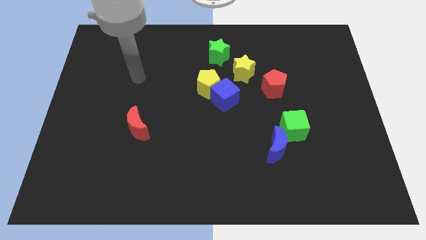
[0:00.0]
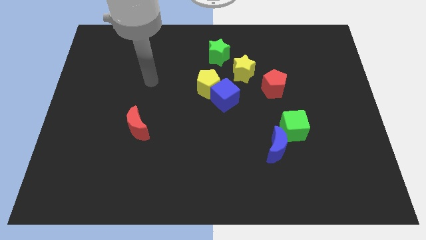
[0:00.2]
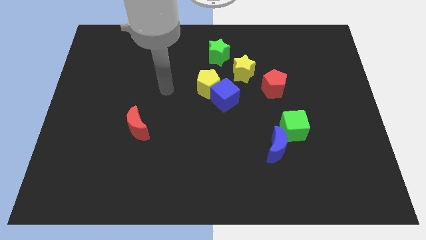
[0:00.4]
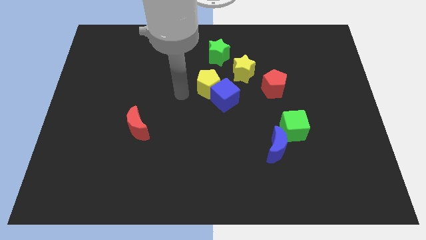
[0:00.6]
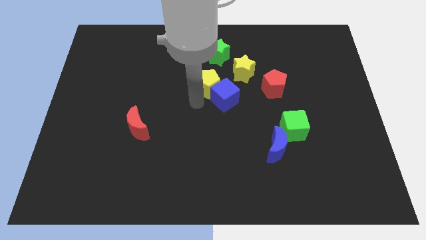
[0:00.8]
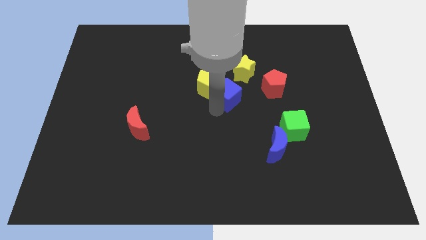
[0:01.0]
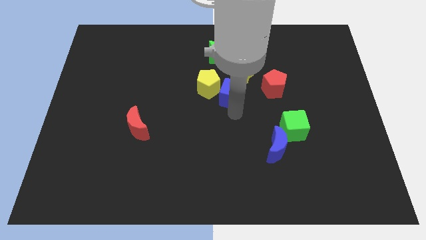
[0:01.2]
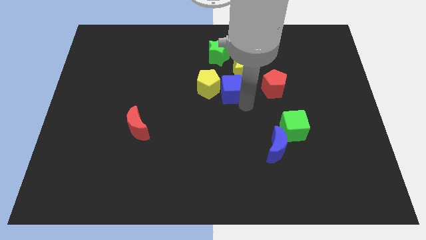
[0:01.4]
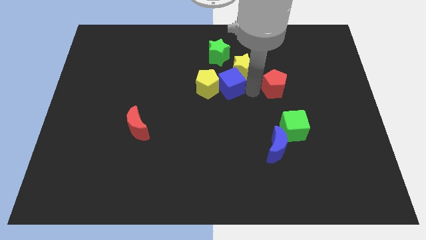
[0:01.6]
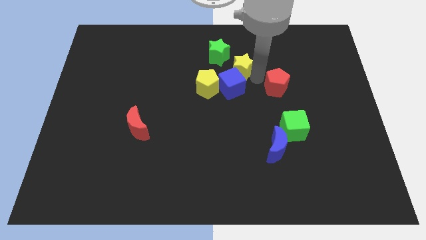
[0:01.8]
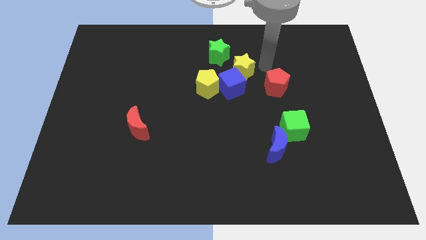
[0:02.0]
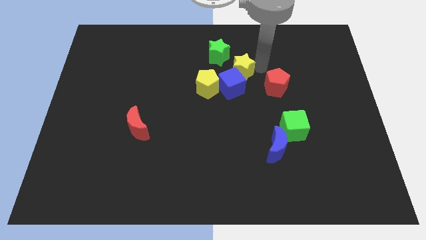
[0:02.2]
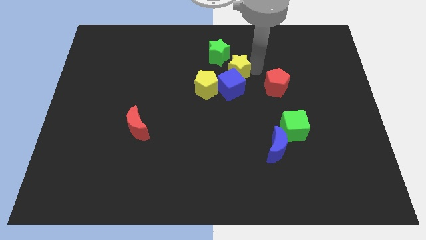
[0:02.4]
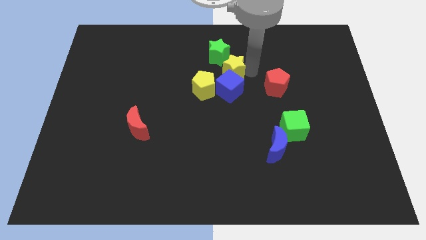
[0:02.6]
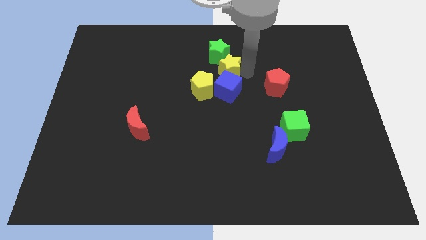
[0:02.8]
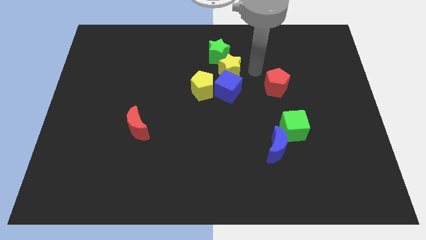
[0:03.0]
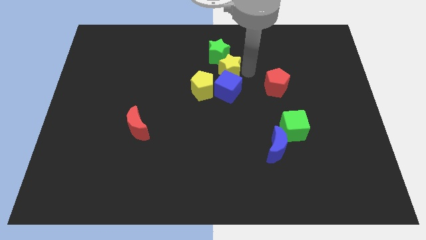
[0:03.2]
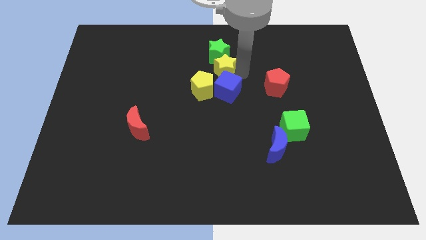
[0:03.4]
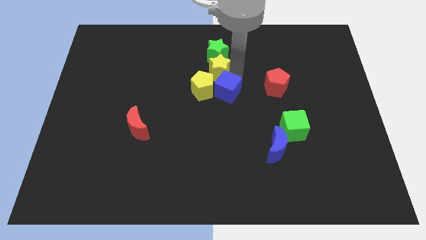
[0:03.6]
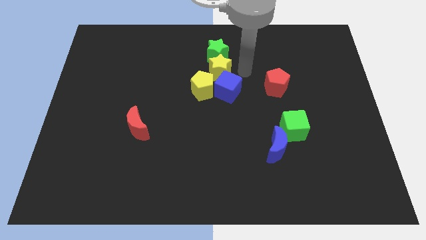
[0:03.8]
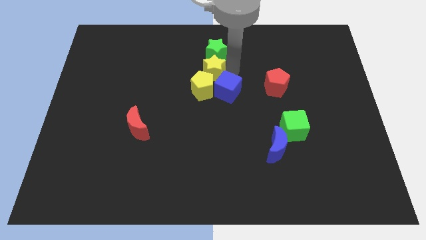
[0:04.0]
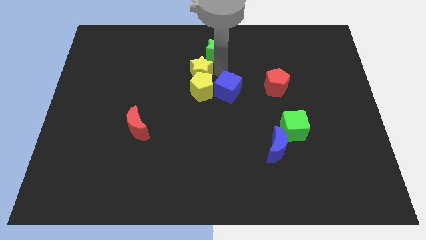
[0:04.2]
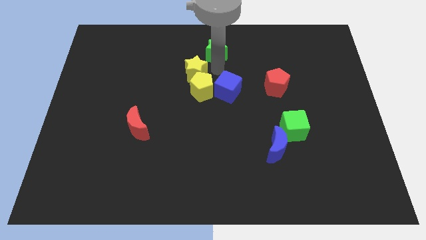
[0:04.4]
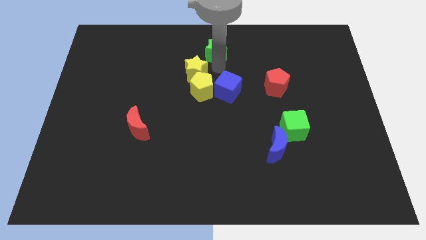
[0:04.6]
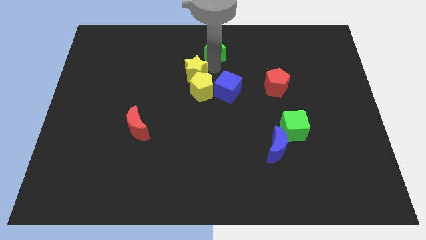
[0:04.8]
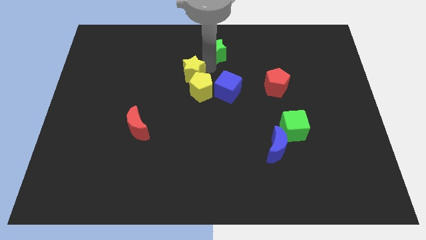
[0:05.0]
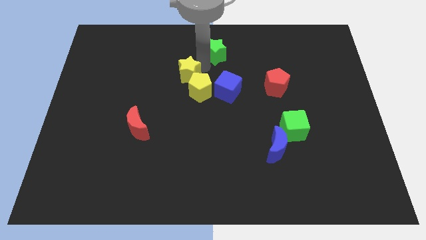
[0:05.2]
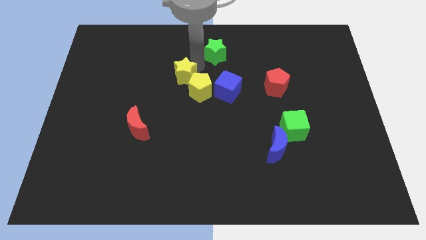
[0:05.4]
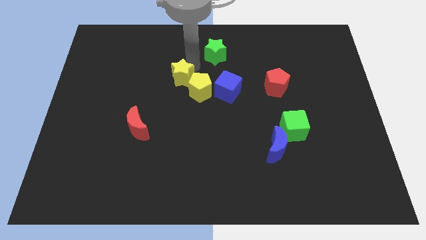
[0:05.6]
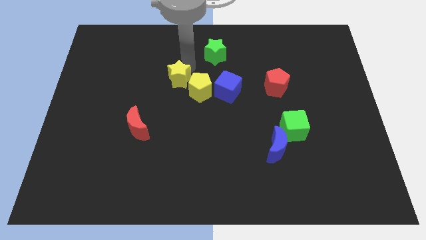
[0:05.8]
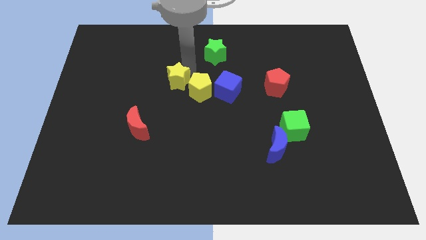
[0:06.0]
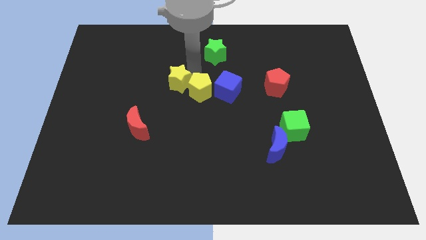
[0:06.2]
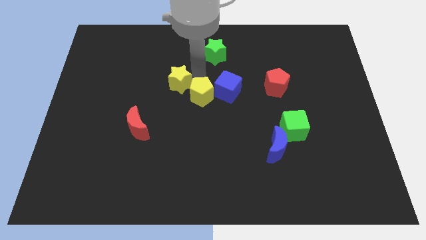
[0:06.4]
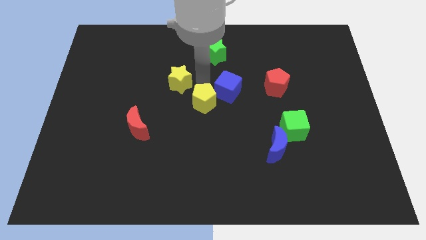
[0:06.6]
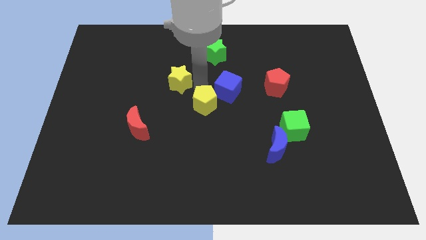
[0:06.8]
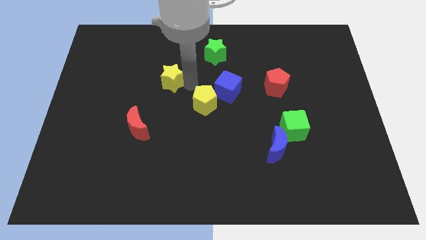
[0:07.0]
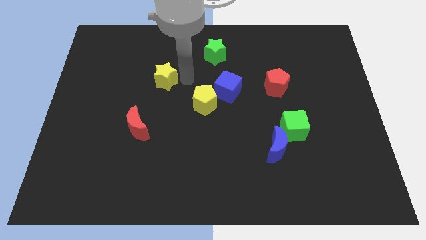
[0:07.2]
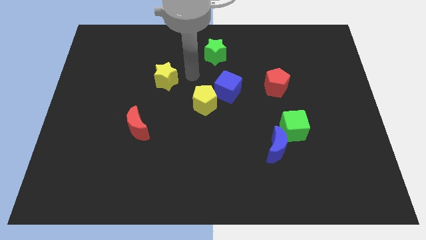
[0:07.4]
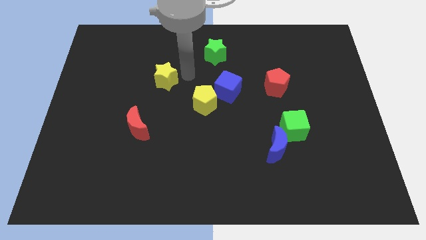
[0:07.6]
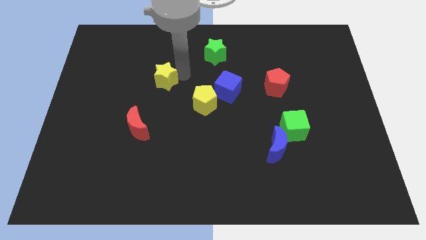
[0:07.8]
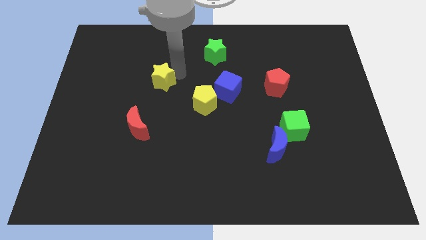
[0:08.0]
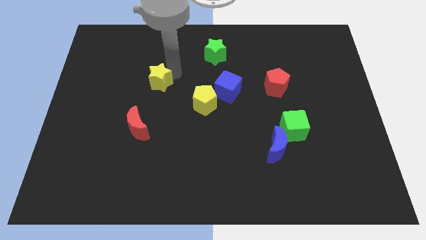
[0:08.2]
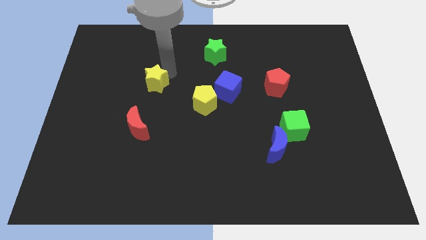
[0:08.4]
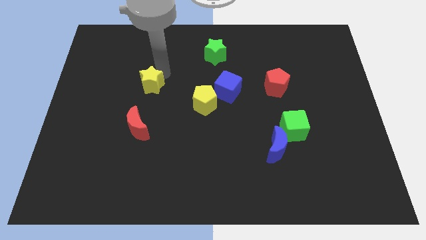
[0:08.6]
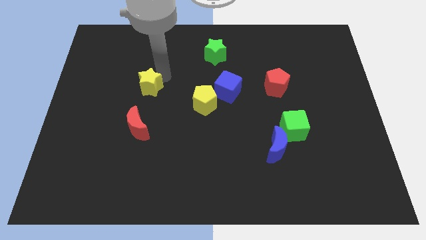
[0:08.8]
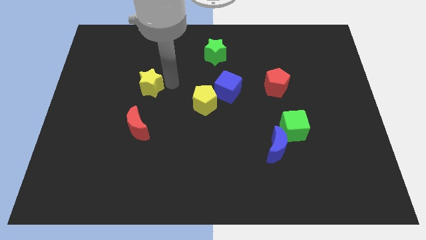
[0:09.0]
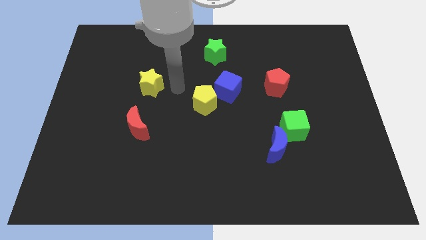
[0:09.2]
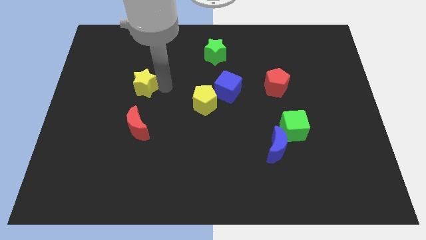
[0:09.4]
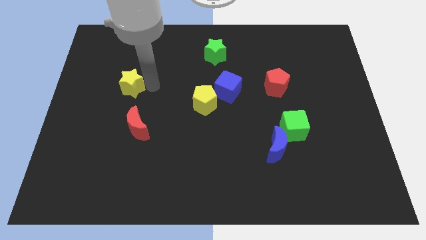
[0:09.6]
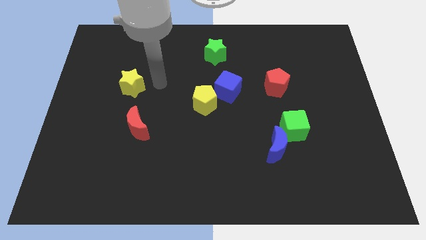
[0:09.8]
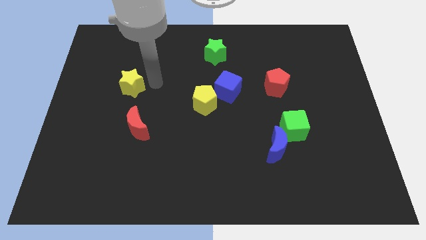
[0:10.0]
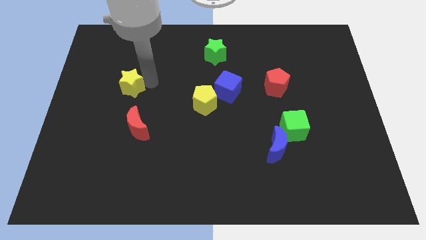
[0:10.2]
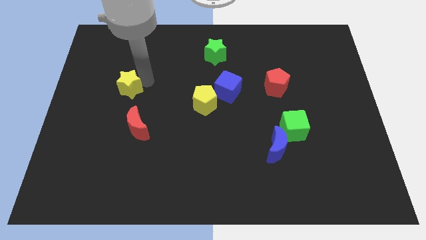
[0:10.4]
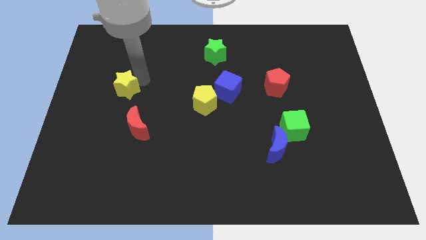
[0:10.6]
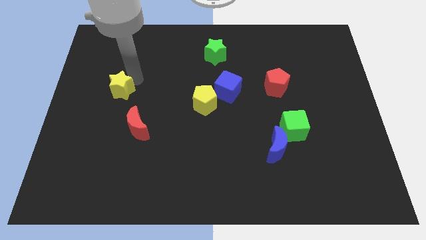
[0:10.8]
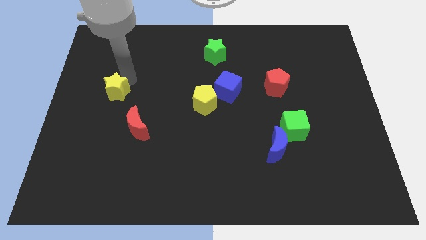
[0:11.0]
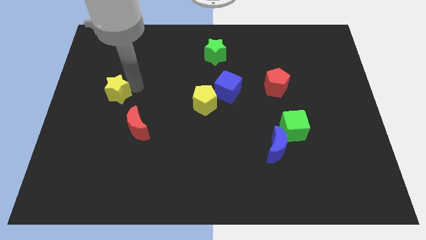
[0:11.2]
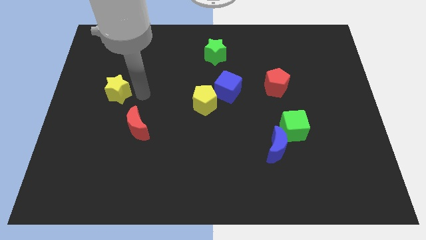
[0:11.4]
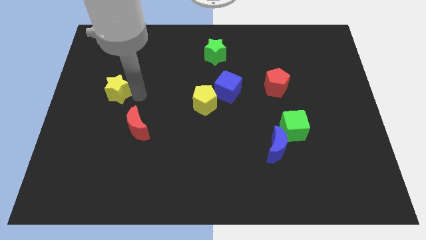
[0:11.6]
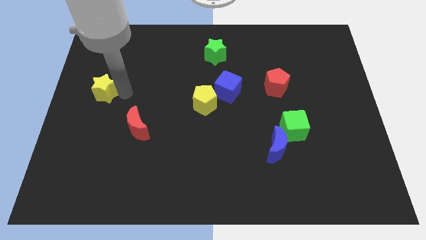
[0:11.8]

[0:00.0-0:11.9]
put the yellow star to the left side of the board

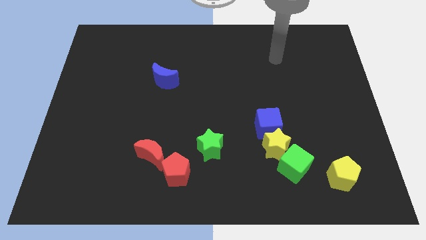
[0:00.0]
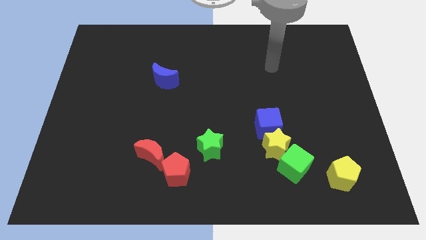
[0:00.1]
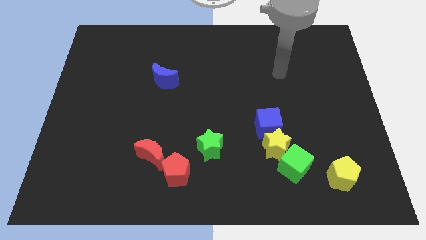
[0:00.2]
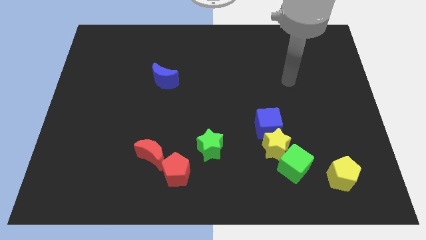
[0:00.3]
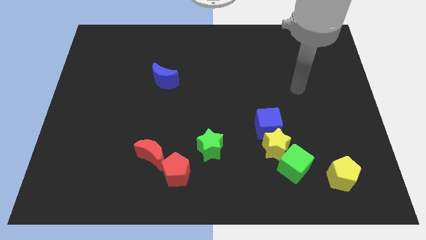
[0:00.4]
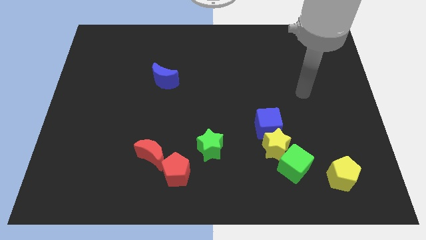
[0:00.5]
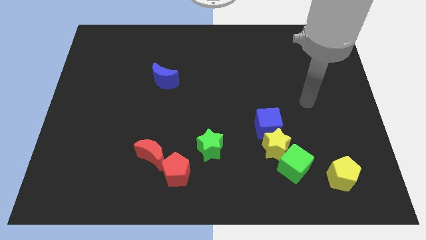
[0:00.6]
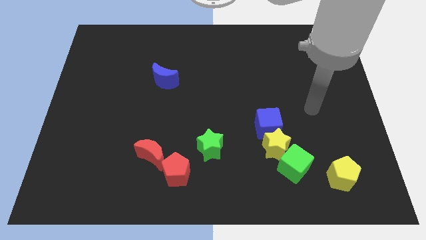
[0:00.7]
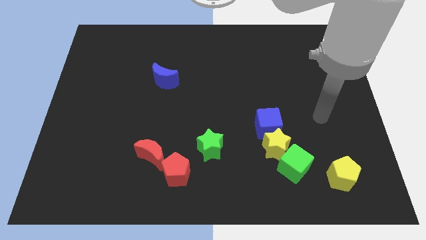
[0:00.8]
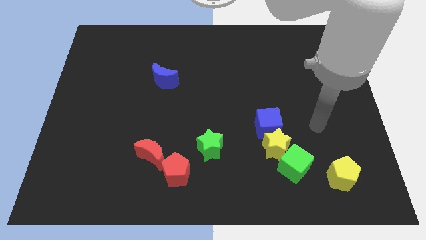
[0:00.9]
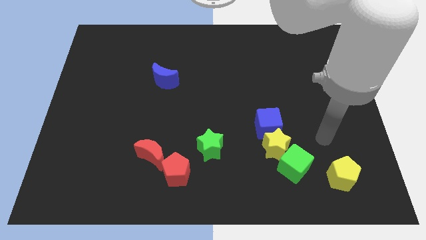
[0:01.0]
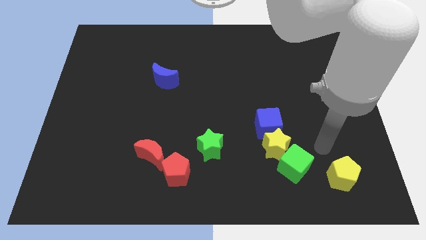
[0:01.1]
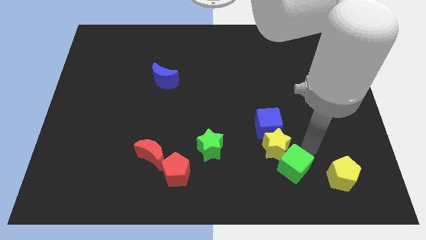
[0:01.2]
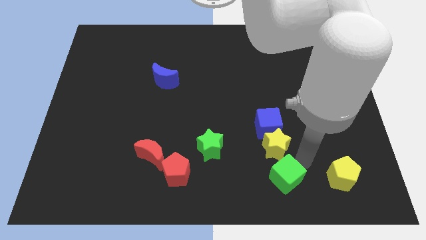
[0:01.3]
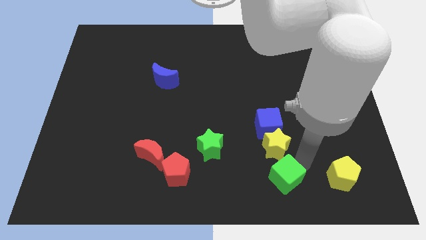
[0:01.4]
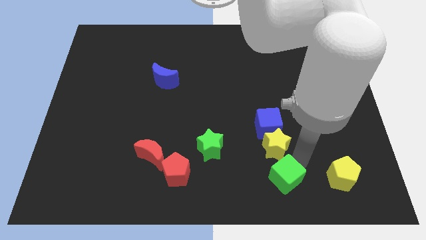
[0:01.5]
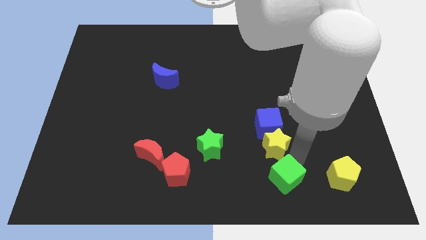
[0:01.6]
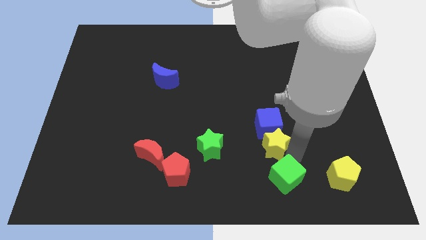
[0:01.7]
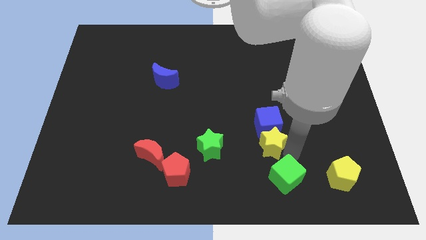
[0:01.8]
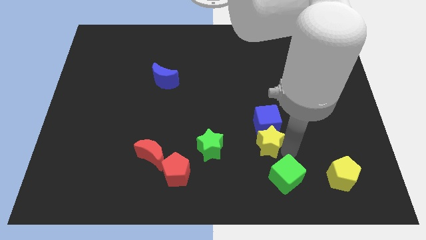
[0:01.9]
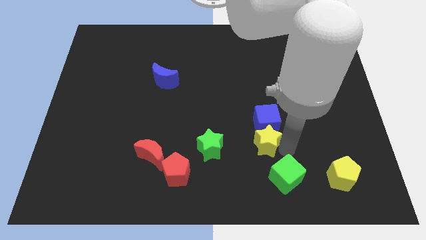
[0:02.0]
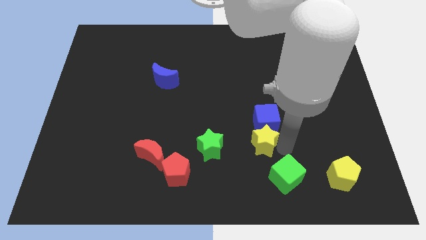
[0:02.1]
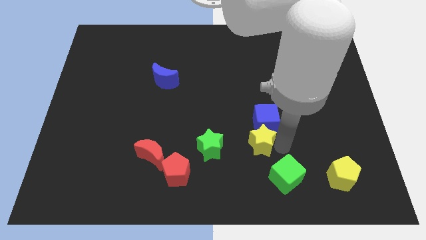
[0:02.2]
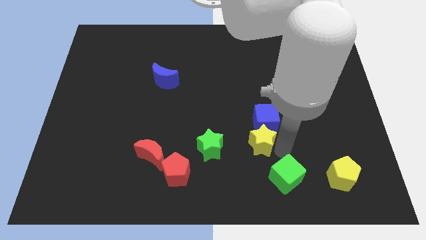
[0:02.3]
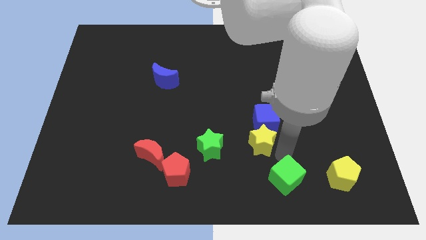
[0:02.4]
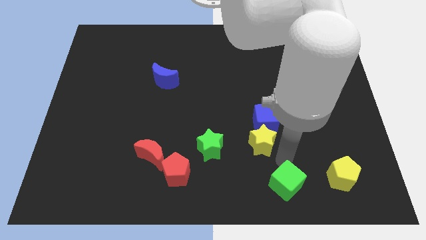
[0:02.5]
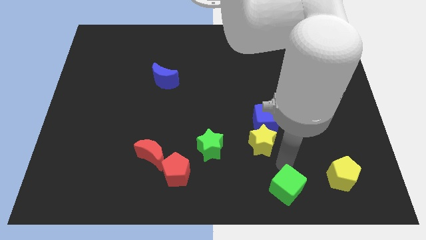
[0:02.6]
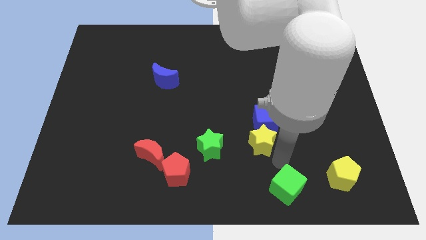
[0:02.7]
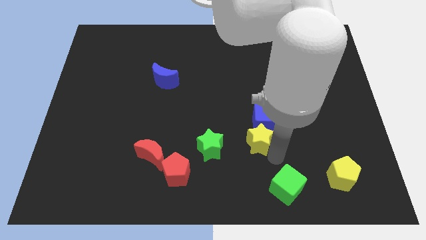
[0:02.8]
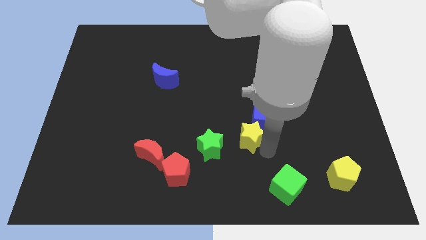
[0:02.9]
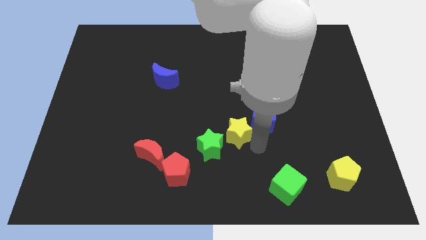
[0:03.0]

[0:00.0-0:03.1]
move the yellow star to the center
